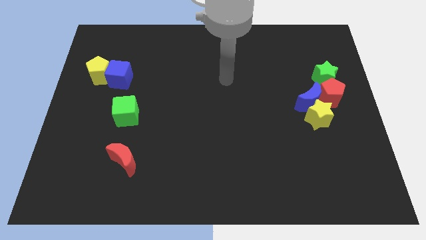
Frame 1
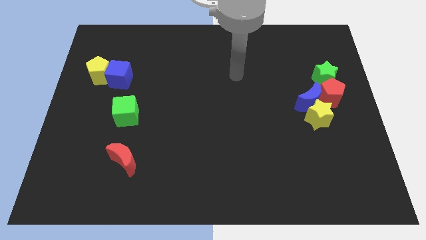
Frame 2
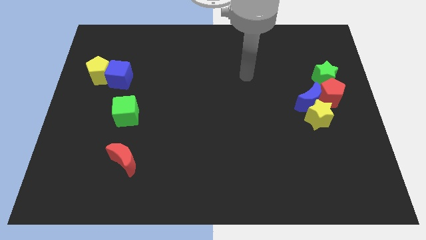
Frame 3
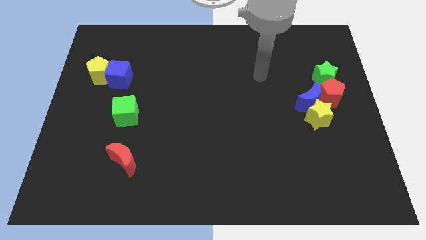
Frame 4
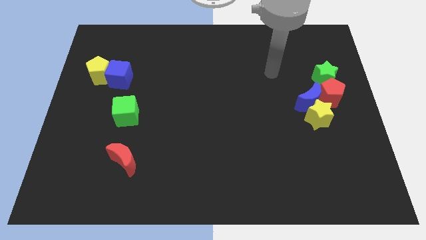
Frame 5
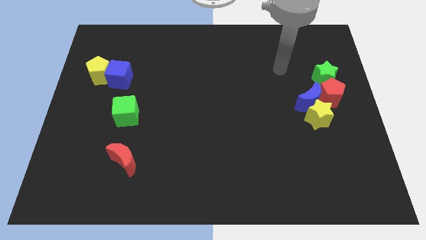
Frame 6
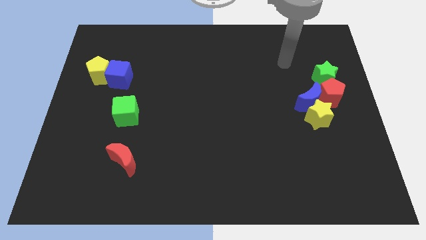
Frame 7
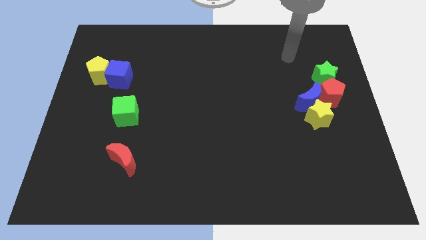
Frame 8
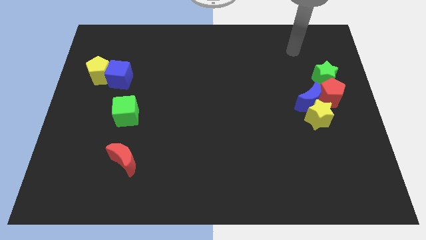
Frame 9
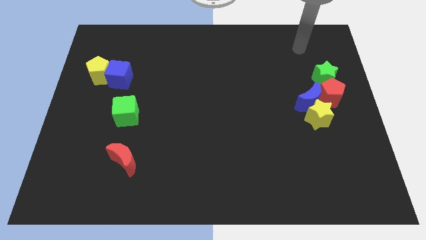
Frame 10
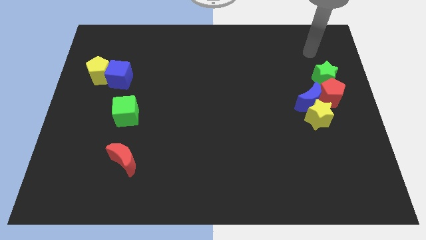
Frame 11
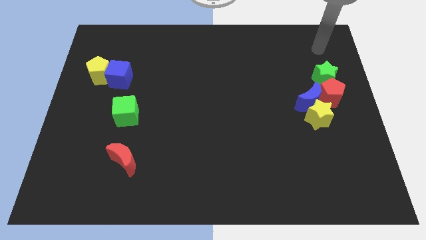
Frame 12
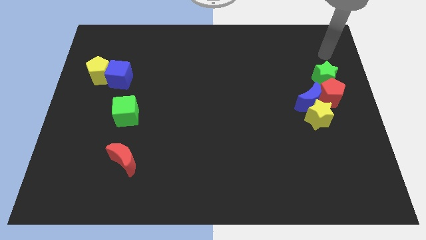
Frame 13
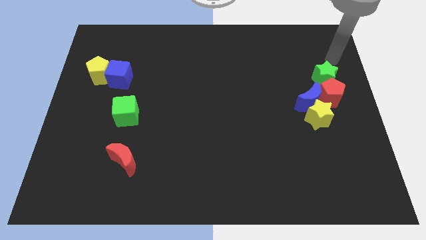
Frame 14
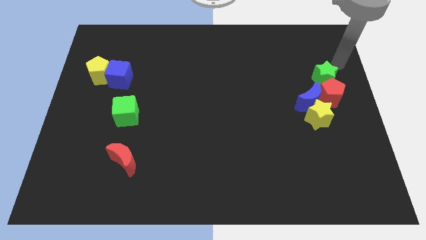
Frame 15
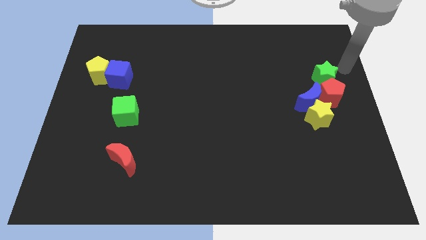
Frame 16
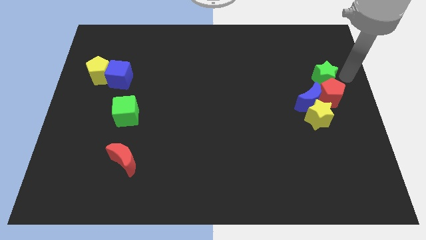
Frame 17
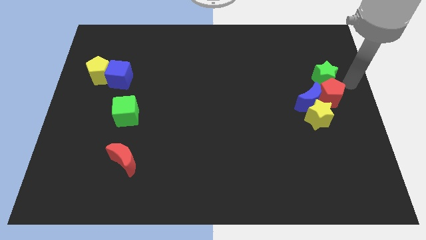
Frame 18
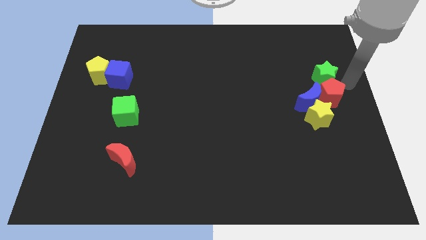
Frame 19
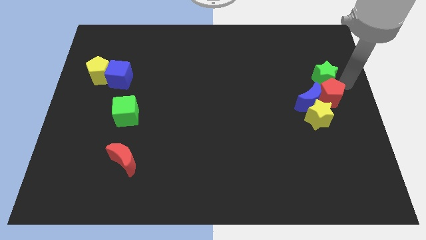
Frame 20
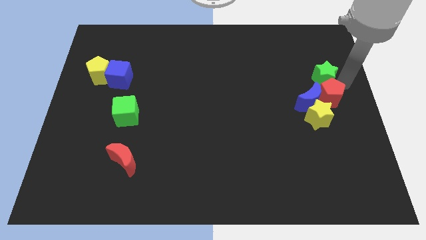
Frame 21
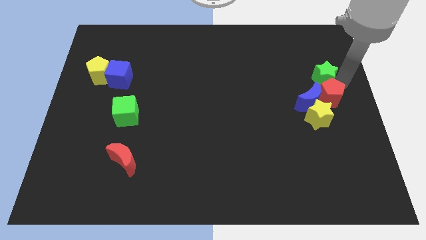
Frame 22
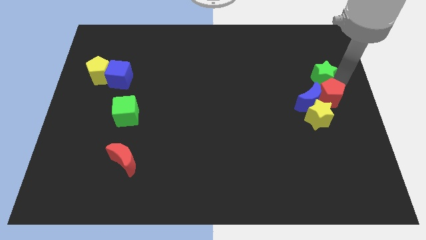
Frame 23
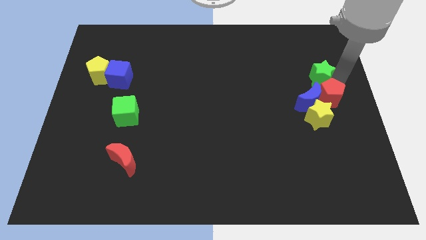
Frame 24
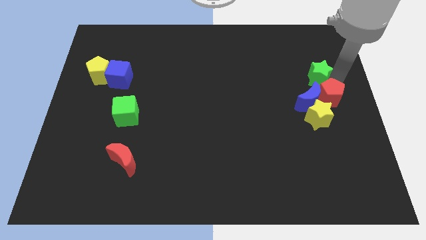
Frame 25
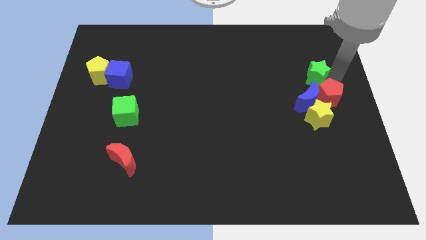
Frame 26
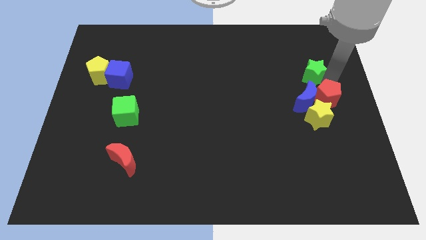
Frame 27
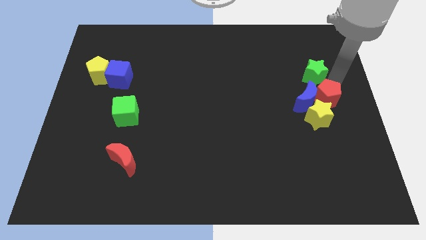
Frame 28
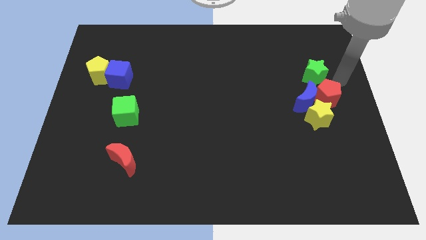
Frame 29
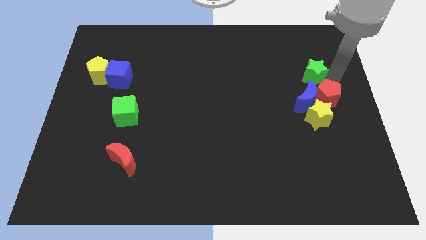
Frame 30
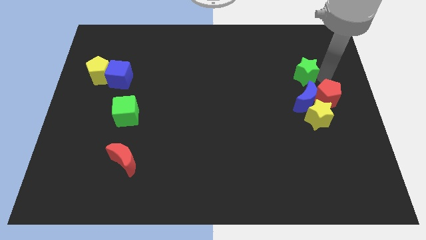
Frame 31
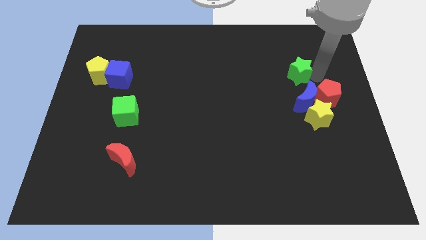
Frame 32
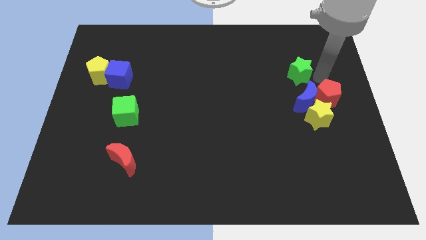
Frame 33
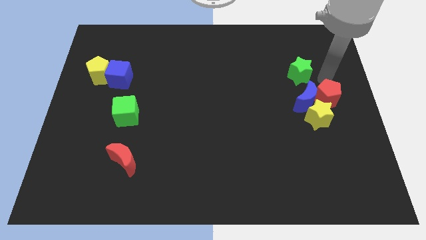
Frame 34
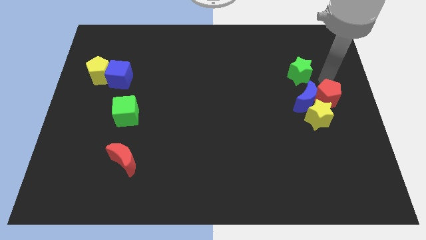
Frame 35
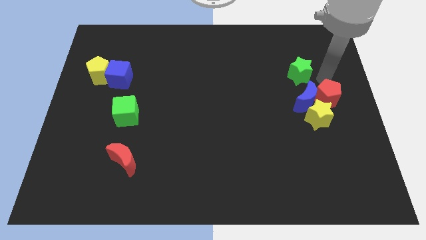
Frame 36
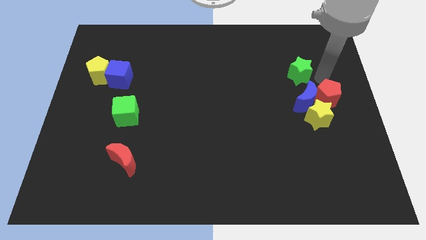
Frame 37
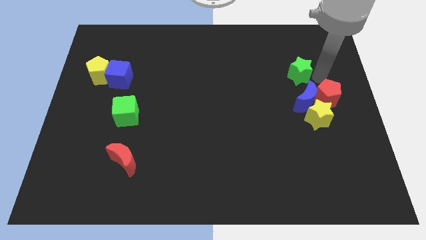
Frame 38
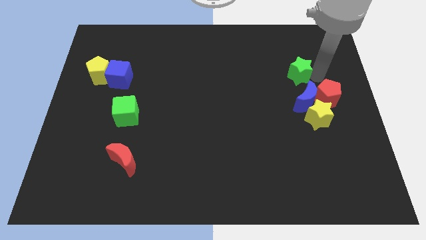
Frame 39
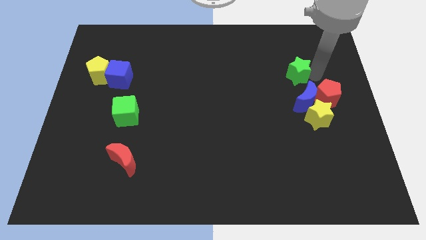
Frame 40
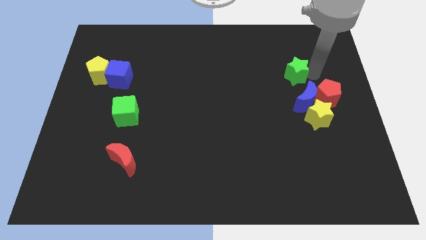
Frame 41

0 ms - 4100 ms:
slightly move the green star to the left

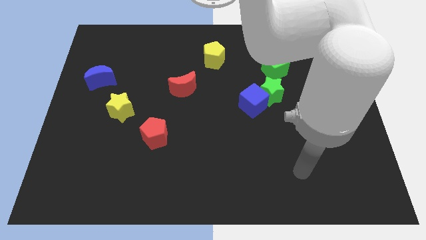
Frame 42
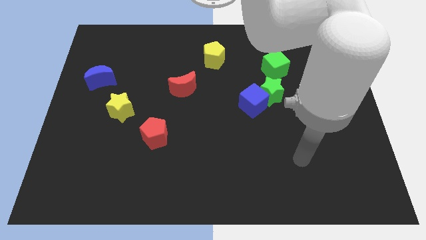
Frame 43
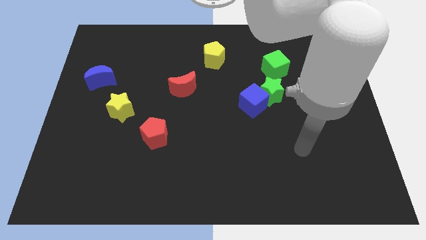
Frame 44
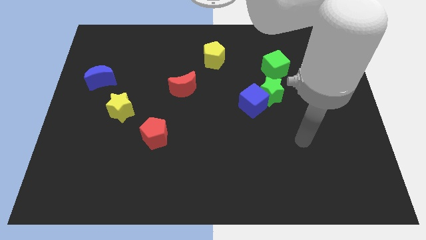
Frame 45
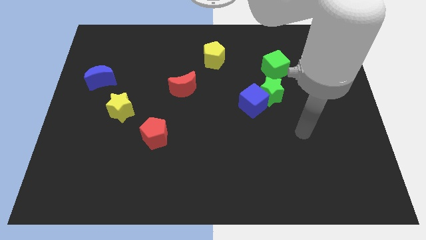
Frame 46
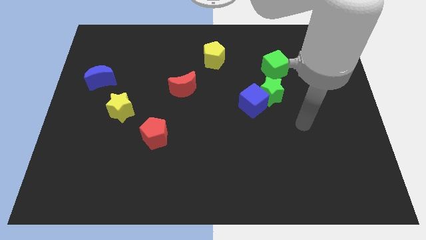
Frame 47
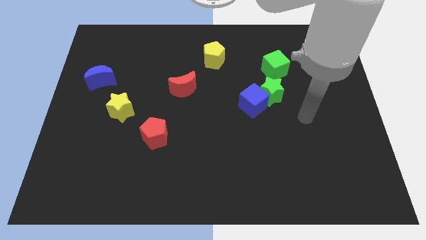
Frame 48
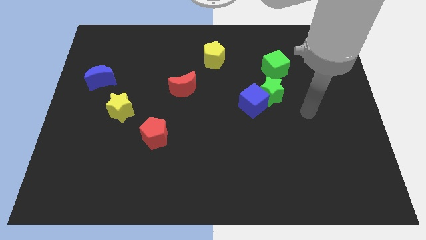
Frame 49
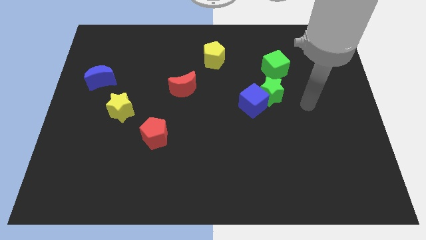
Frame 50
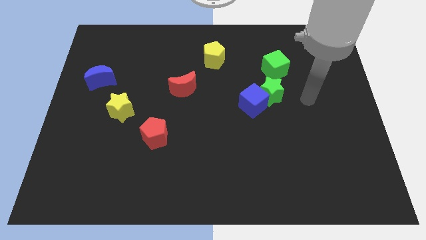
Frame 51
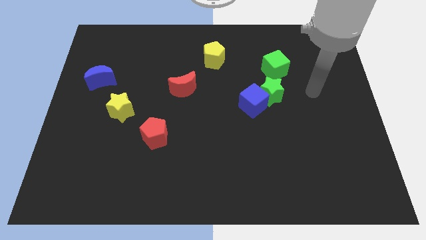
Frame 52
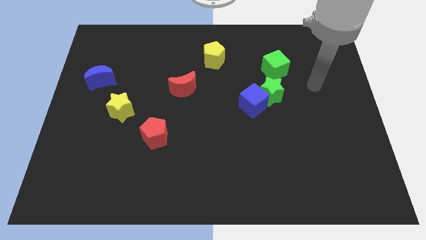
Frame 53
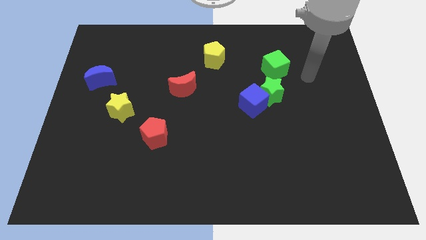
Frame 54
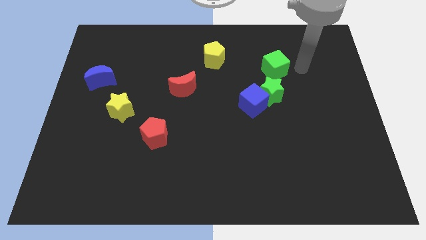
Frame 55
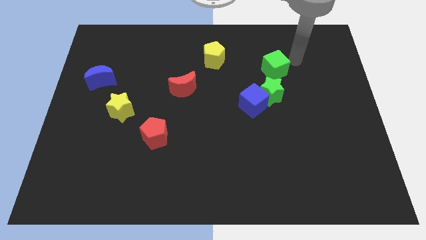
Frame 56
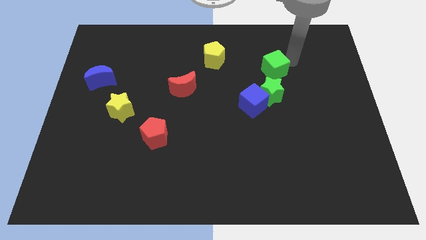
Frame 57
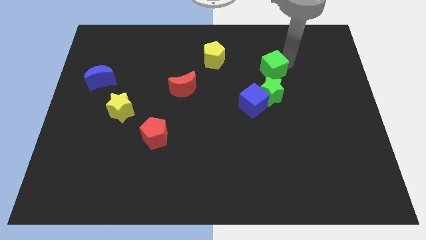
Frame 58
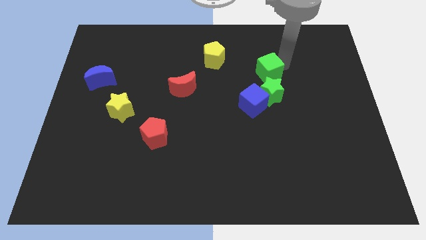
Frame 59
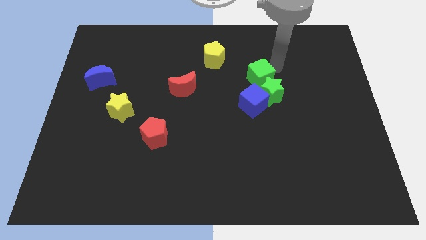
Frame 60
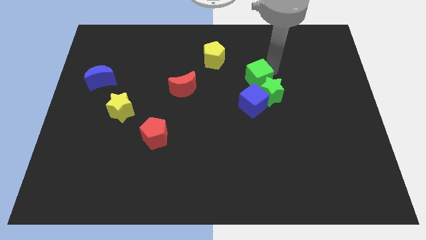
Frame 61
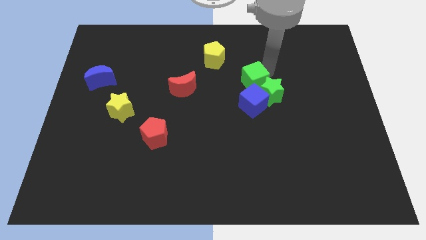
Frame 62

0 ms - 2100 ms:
move the green cube slightly downwards and then left

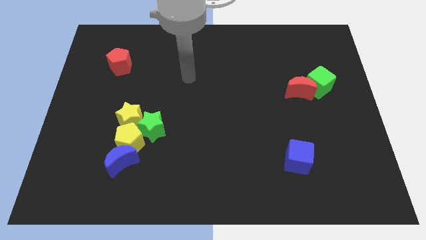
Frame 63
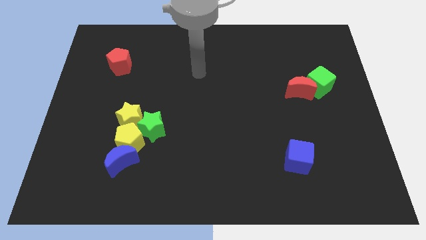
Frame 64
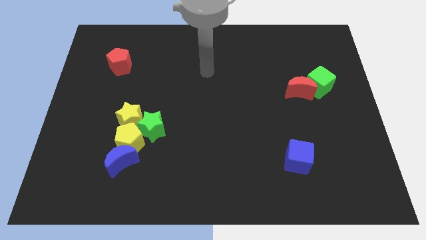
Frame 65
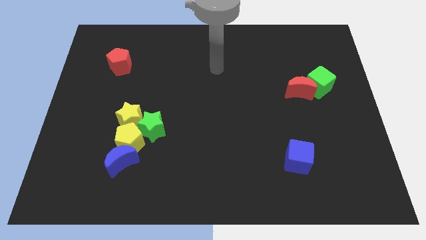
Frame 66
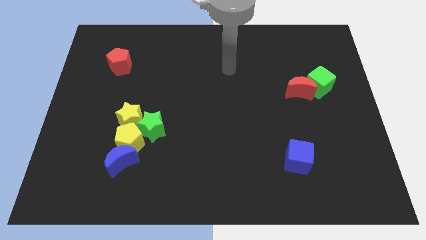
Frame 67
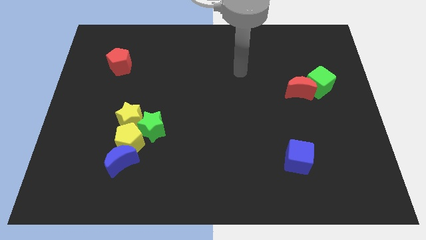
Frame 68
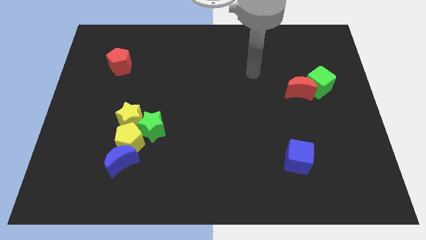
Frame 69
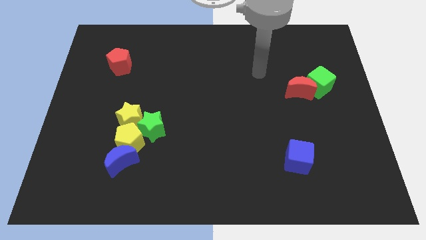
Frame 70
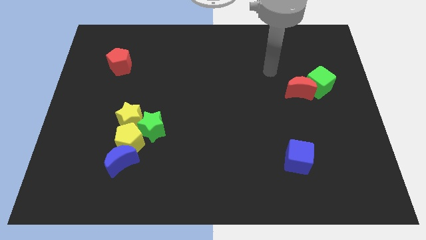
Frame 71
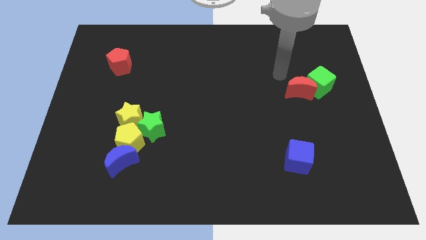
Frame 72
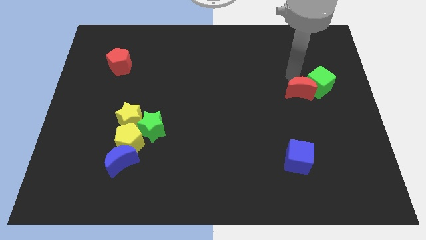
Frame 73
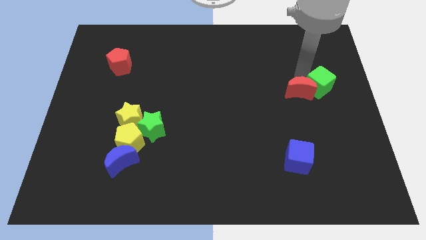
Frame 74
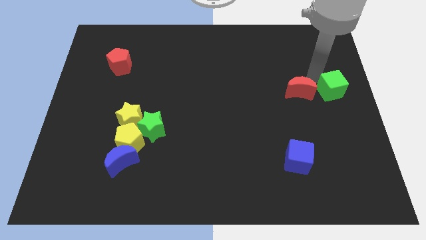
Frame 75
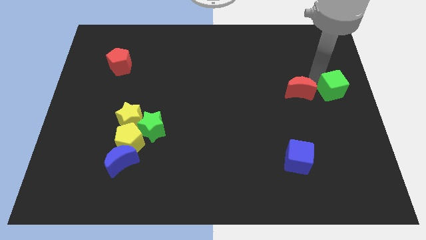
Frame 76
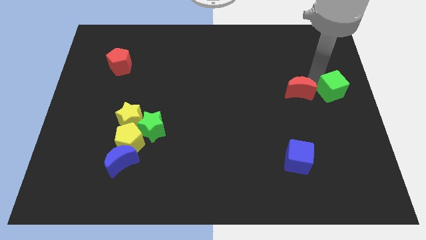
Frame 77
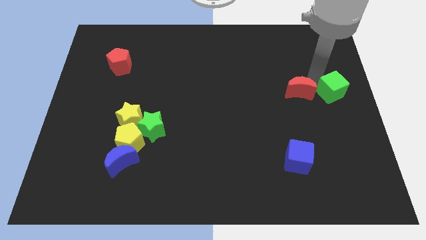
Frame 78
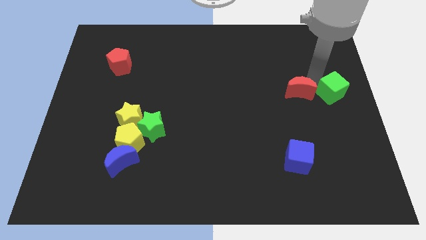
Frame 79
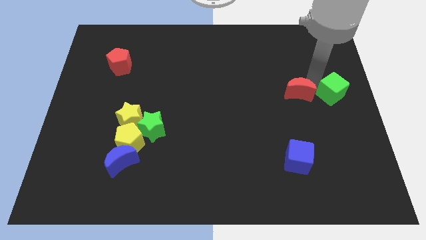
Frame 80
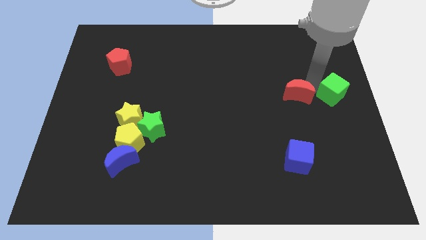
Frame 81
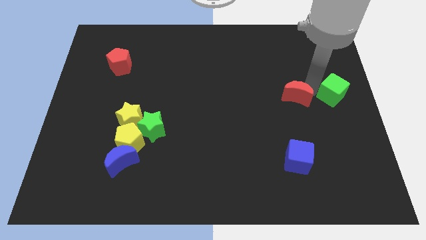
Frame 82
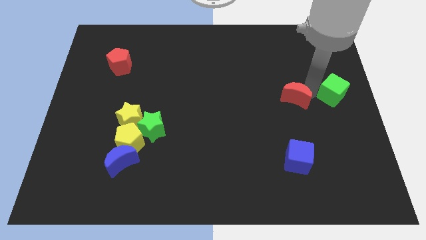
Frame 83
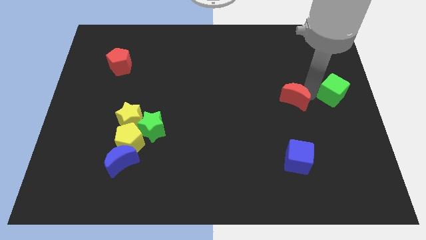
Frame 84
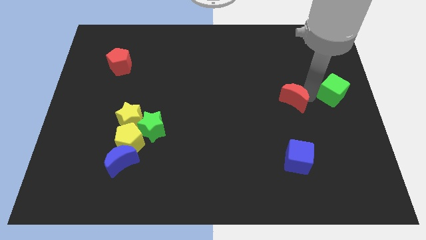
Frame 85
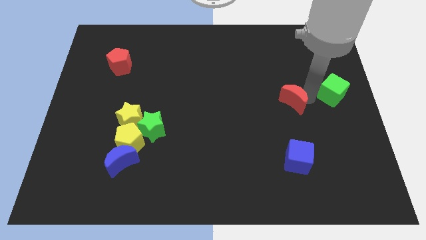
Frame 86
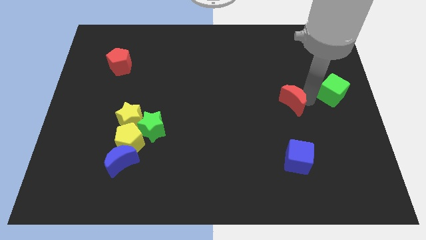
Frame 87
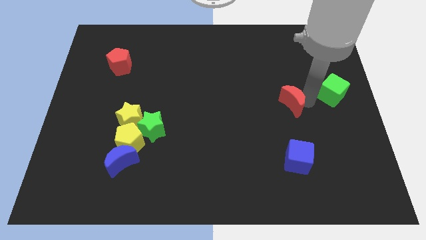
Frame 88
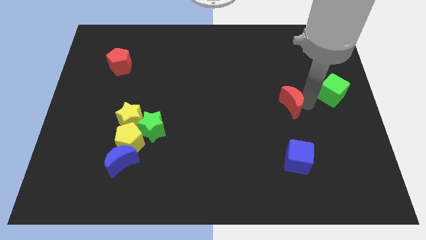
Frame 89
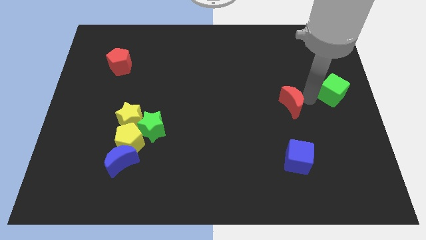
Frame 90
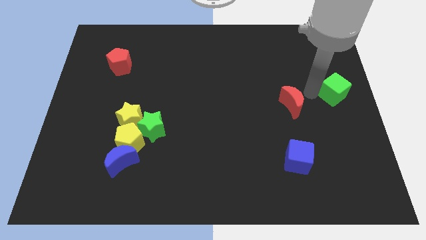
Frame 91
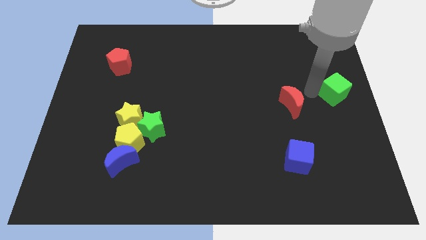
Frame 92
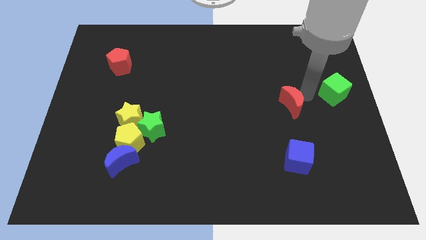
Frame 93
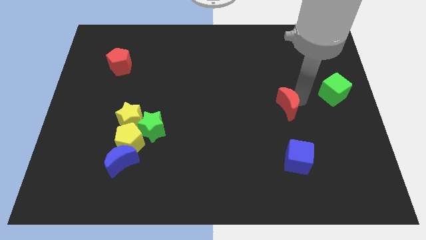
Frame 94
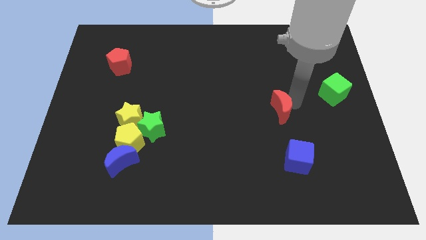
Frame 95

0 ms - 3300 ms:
slide the red moon a little down and left
